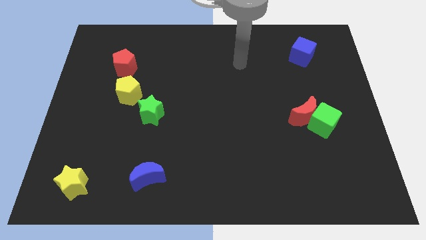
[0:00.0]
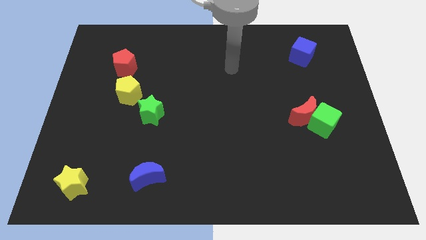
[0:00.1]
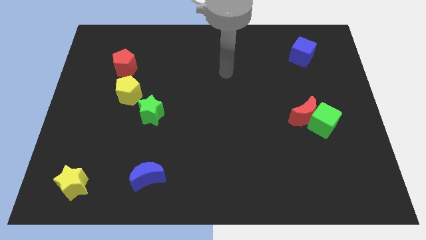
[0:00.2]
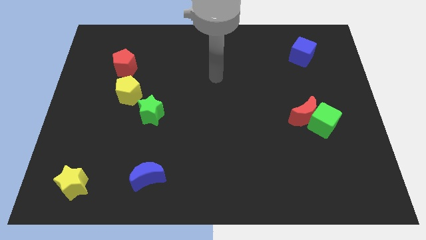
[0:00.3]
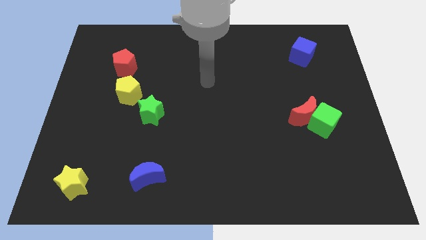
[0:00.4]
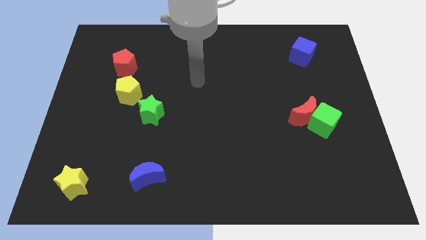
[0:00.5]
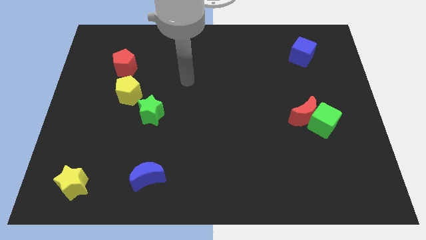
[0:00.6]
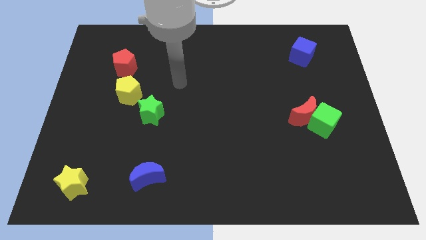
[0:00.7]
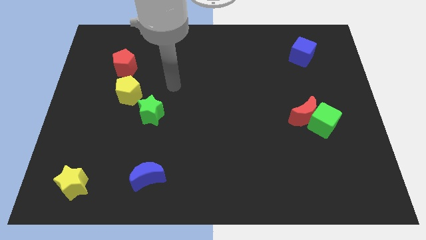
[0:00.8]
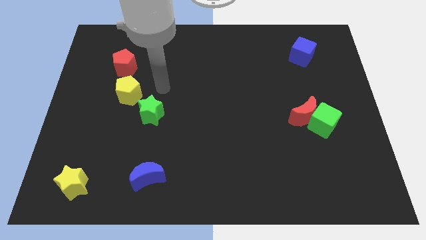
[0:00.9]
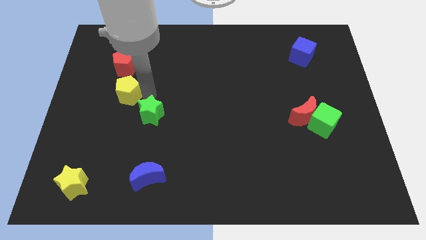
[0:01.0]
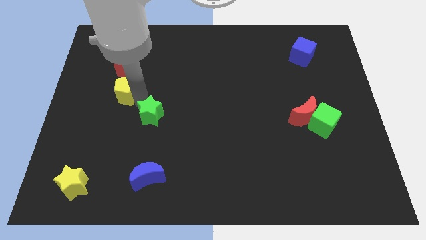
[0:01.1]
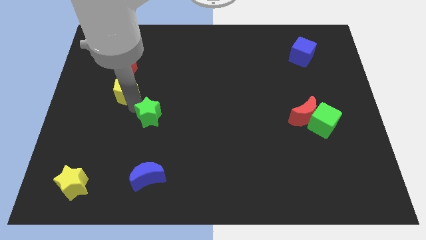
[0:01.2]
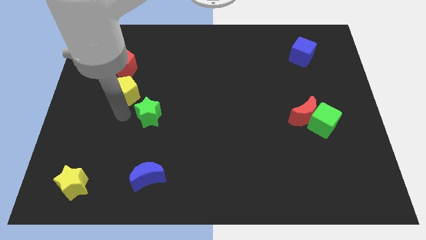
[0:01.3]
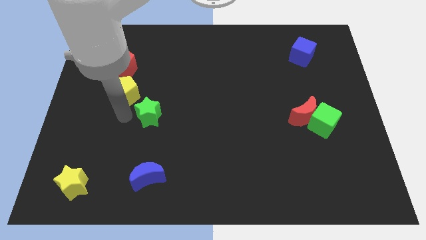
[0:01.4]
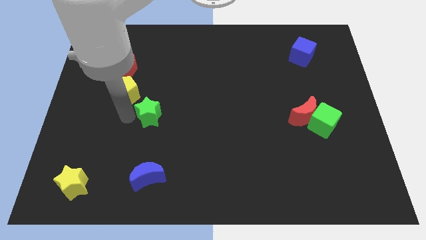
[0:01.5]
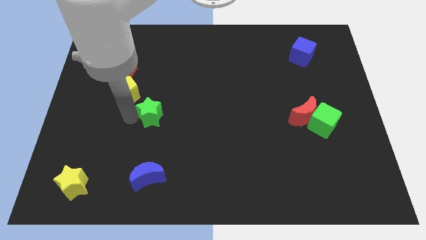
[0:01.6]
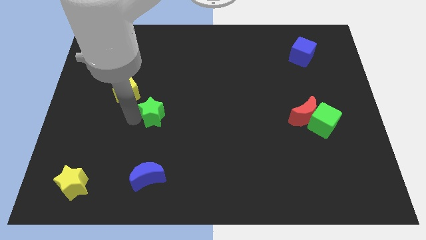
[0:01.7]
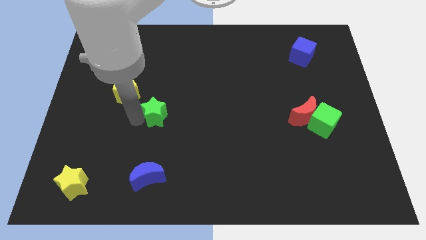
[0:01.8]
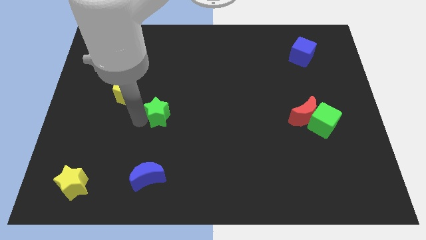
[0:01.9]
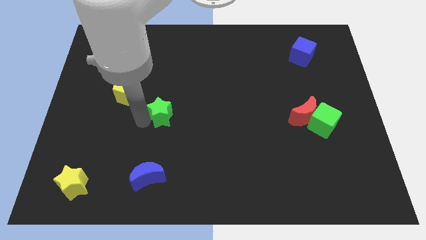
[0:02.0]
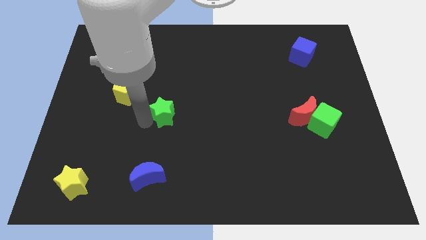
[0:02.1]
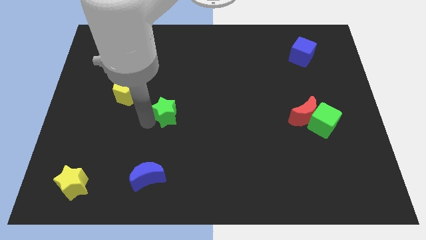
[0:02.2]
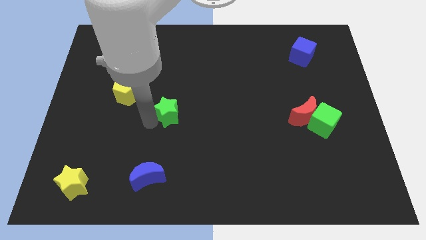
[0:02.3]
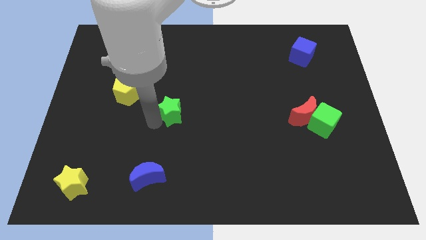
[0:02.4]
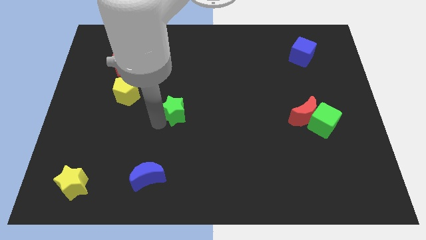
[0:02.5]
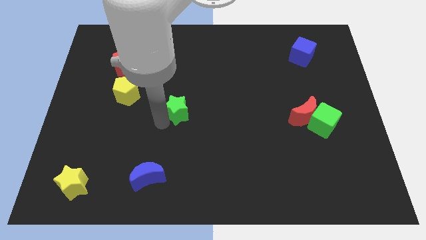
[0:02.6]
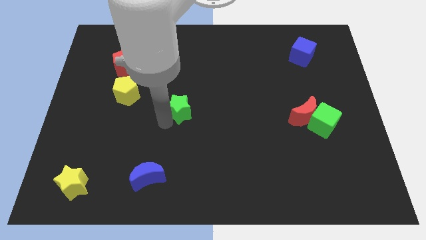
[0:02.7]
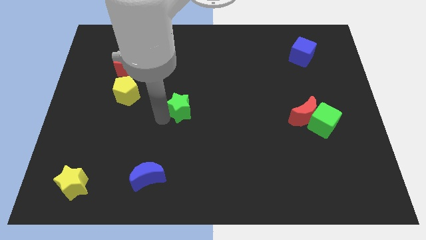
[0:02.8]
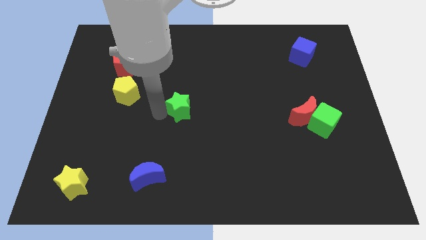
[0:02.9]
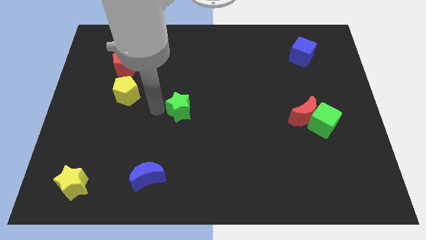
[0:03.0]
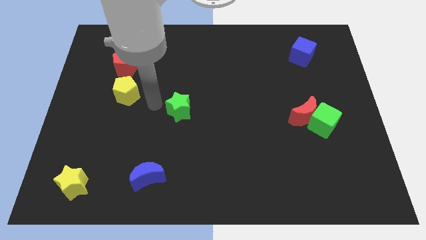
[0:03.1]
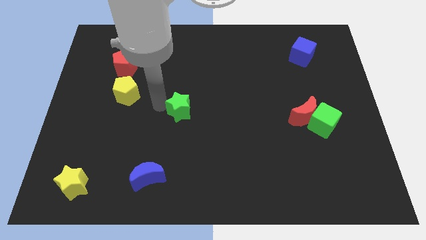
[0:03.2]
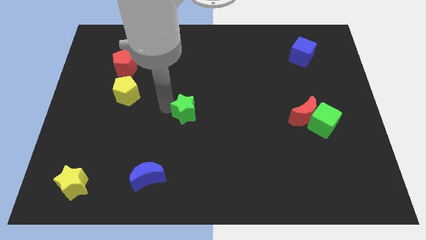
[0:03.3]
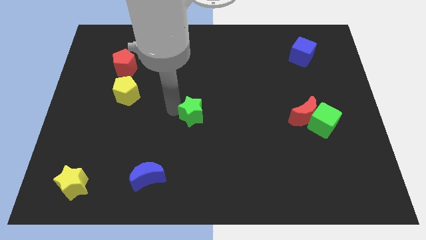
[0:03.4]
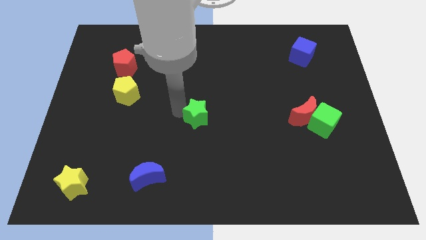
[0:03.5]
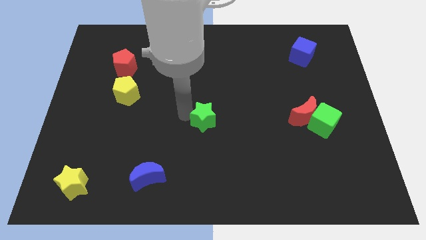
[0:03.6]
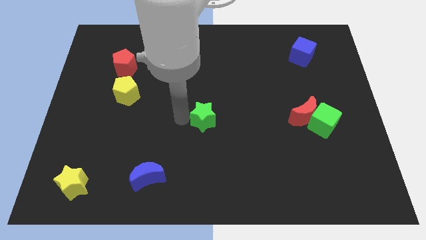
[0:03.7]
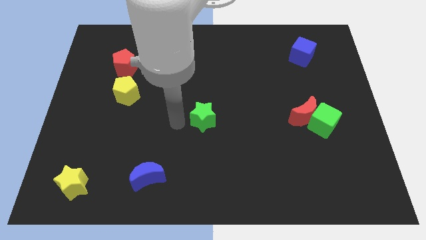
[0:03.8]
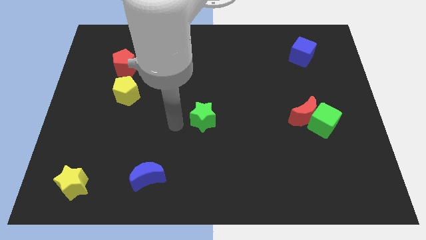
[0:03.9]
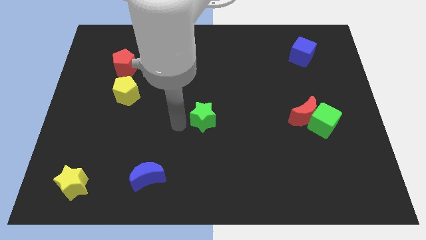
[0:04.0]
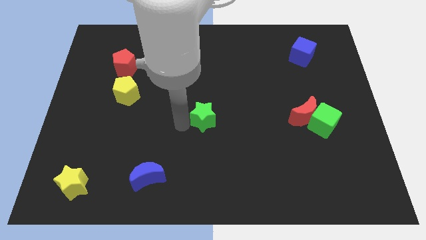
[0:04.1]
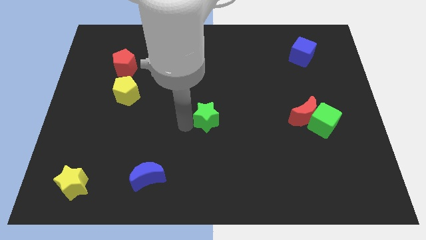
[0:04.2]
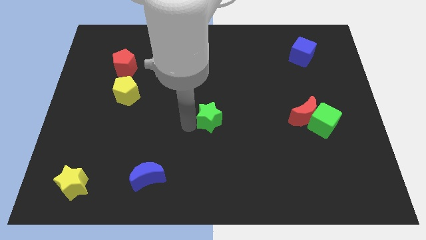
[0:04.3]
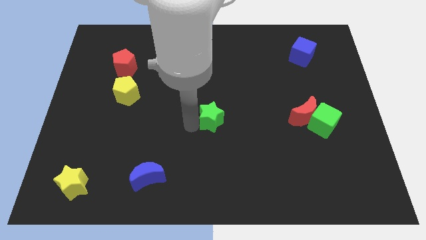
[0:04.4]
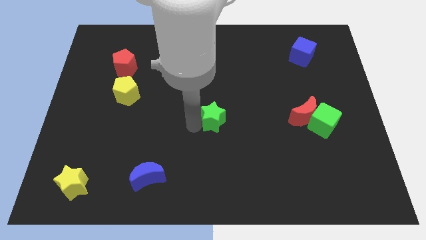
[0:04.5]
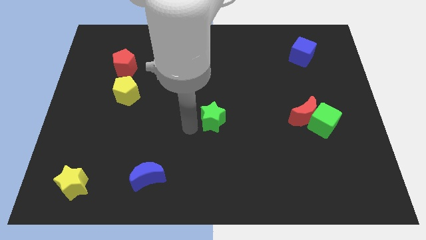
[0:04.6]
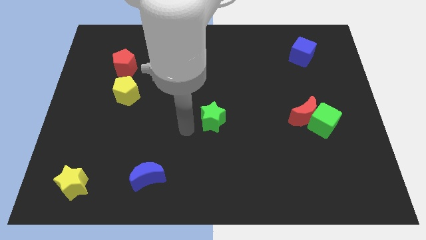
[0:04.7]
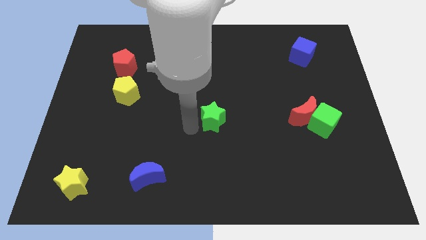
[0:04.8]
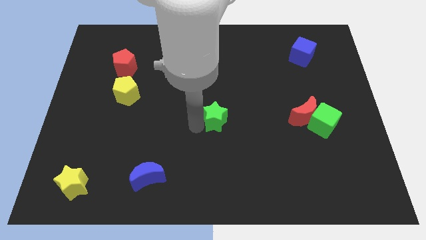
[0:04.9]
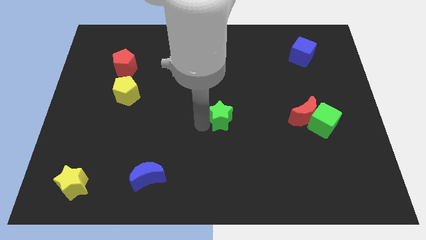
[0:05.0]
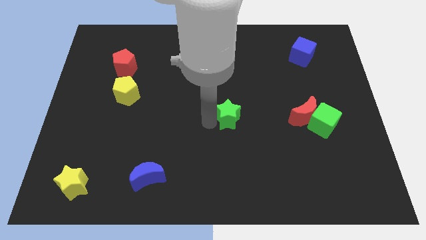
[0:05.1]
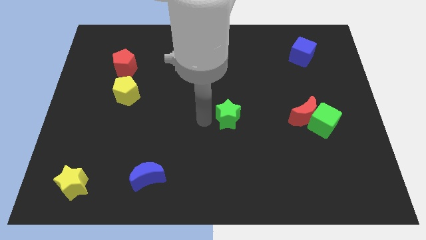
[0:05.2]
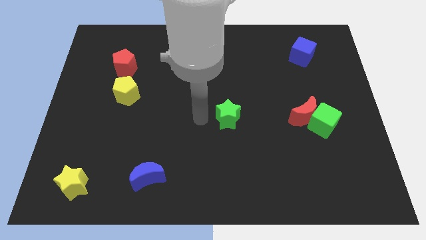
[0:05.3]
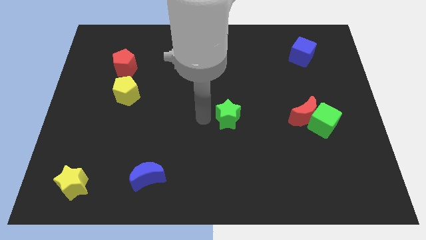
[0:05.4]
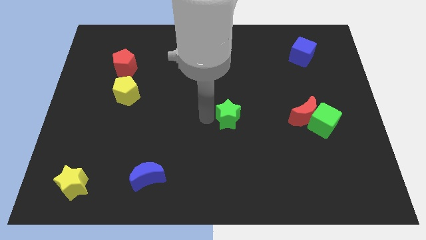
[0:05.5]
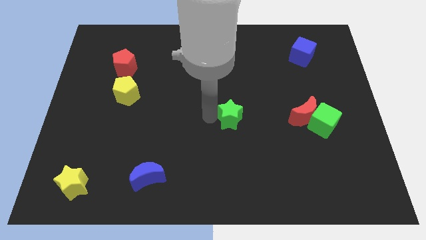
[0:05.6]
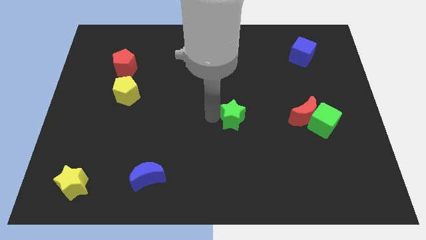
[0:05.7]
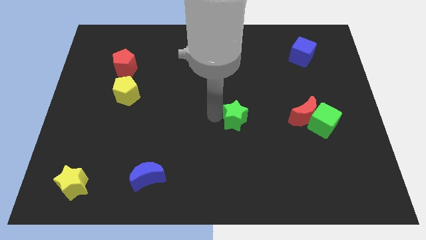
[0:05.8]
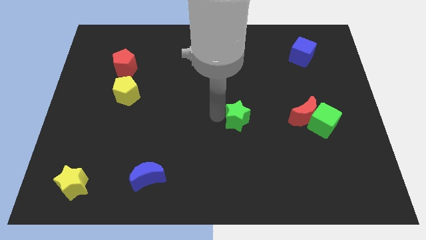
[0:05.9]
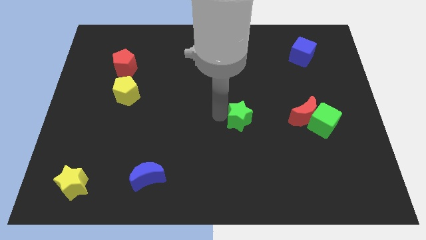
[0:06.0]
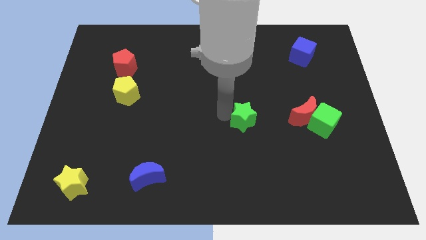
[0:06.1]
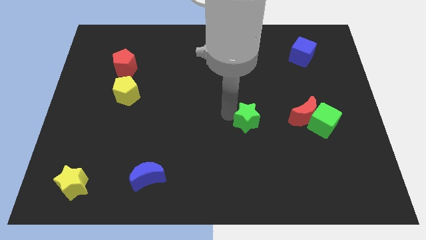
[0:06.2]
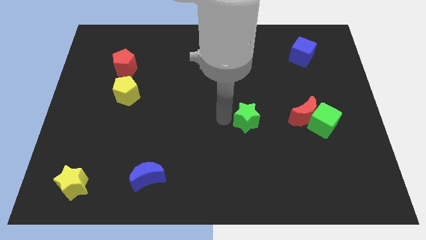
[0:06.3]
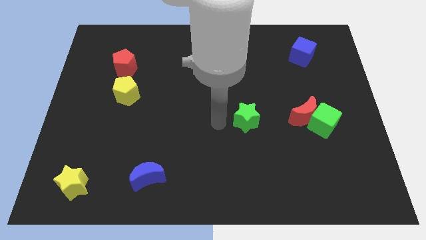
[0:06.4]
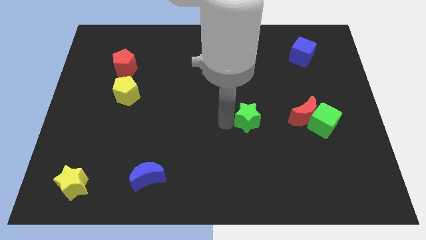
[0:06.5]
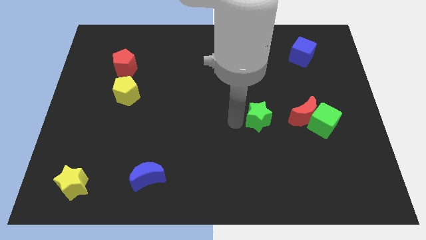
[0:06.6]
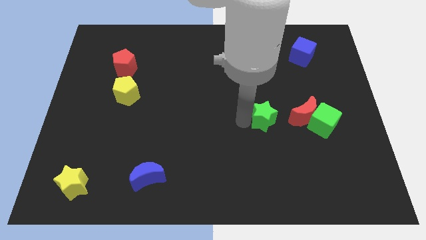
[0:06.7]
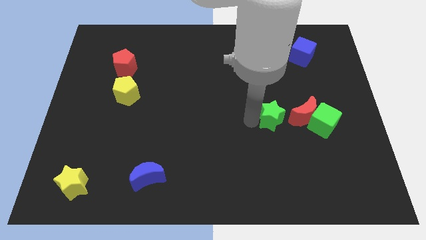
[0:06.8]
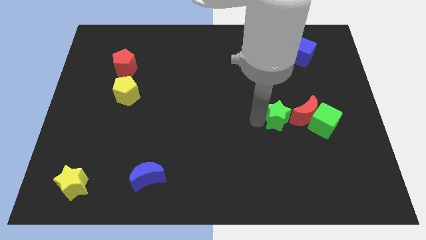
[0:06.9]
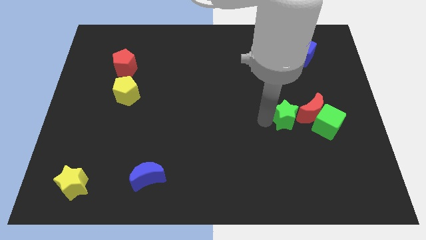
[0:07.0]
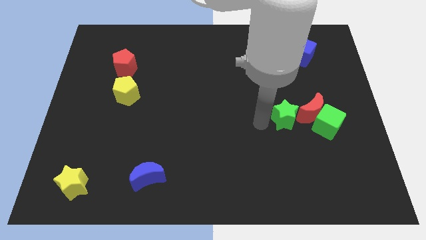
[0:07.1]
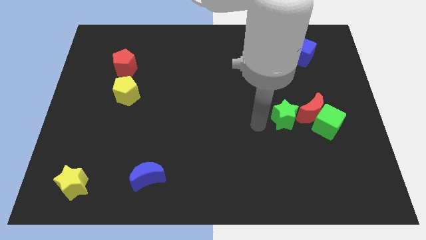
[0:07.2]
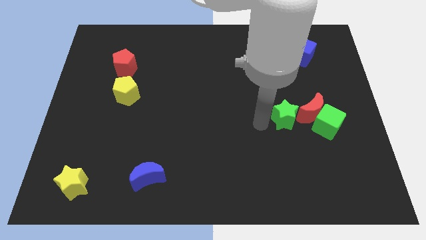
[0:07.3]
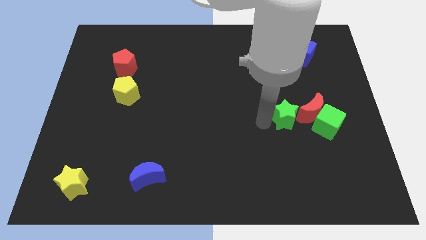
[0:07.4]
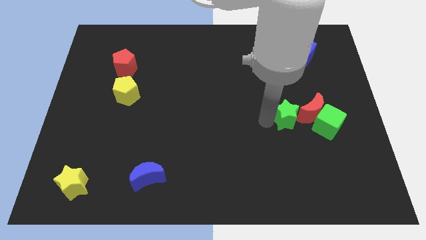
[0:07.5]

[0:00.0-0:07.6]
slide the green star to the red moon
